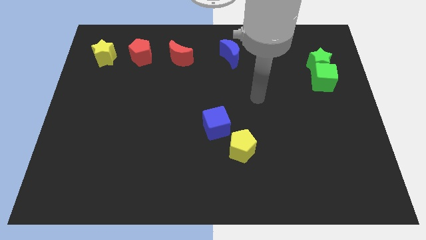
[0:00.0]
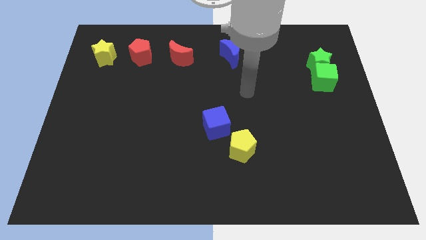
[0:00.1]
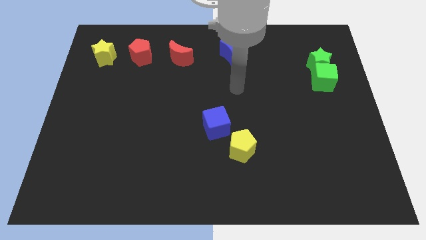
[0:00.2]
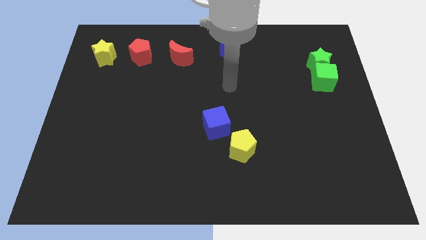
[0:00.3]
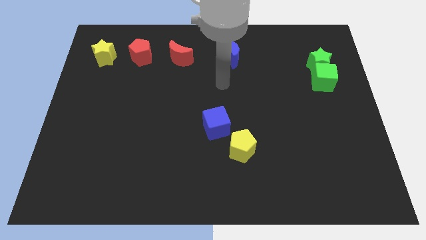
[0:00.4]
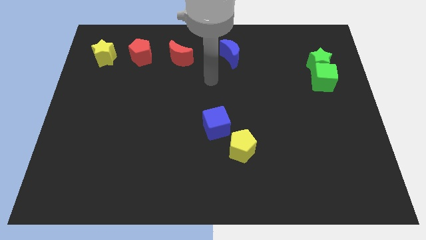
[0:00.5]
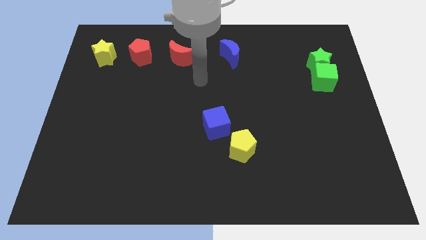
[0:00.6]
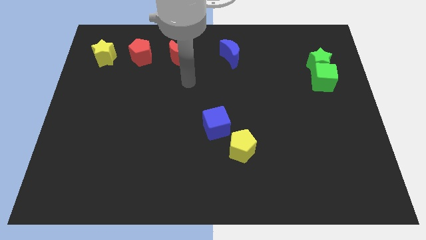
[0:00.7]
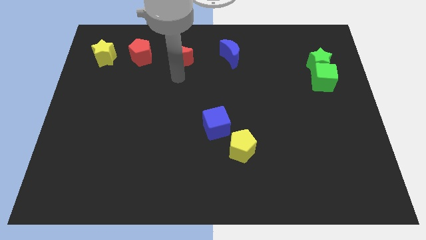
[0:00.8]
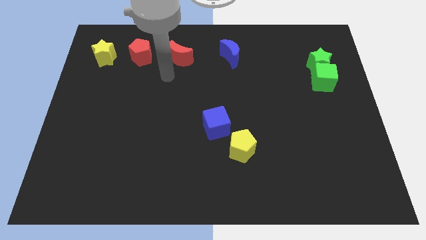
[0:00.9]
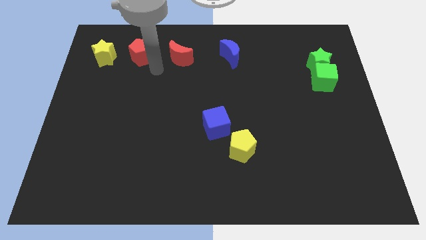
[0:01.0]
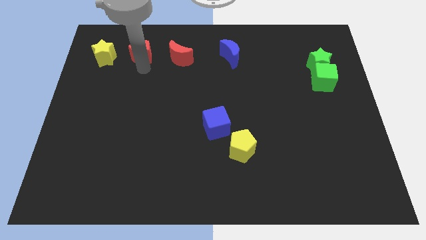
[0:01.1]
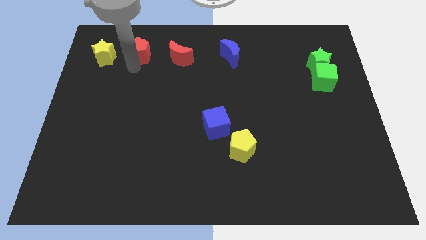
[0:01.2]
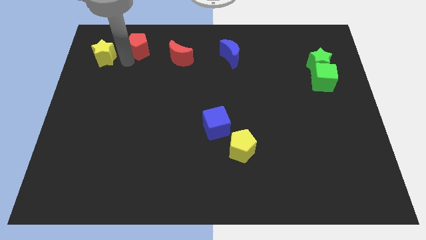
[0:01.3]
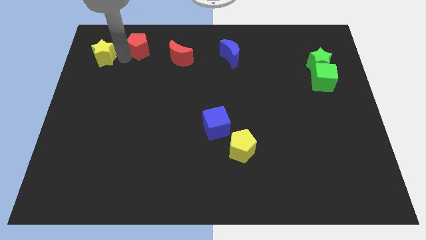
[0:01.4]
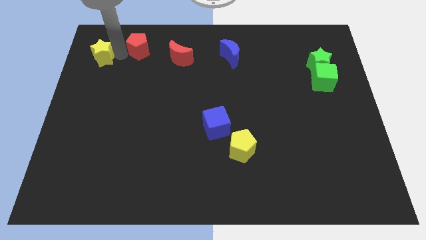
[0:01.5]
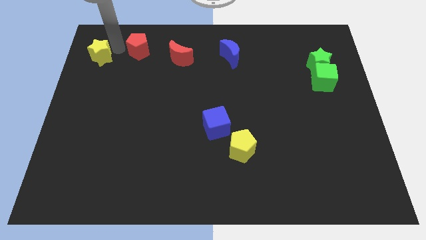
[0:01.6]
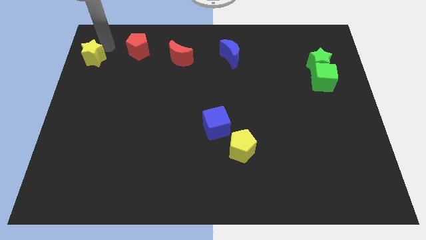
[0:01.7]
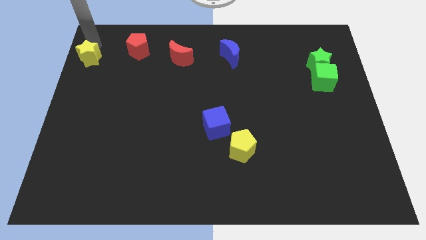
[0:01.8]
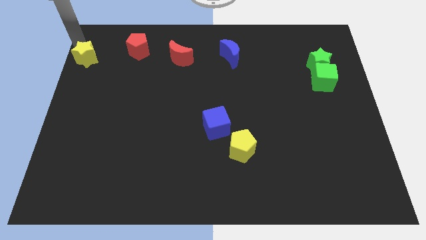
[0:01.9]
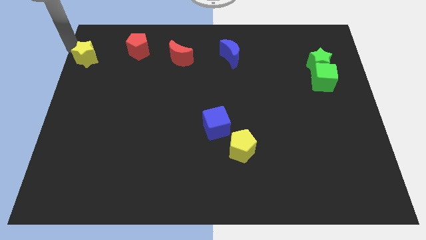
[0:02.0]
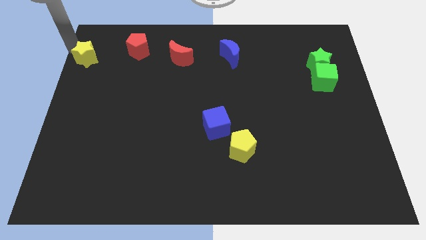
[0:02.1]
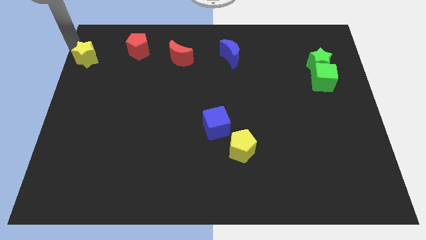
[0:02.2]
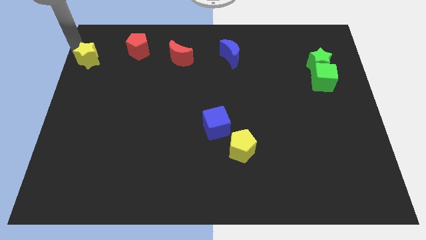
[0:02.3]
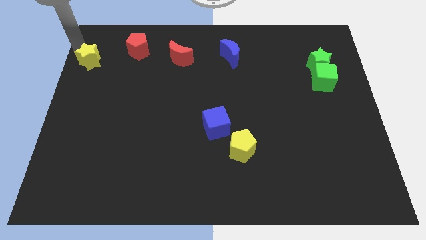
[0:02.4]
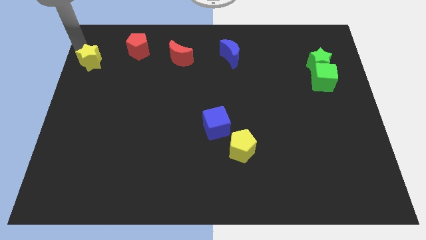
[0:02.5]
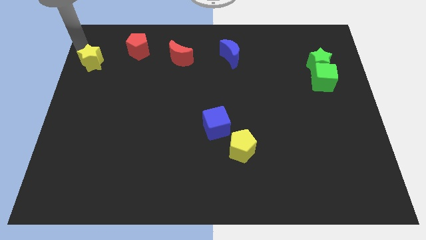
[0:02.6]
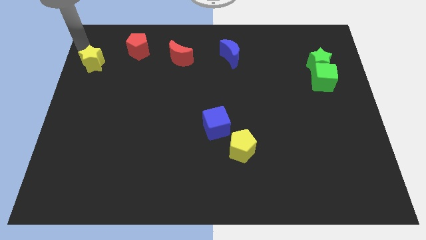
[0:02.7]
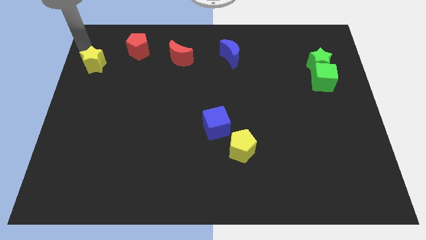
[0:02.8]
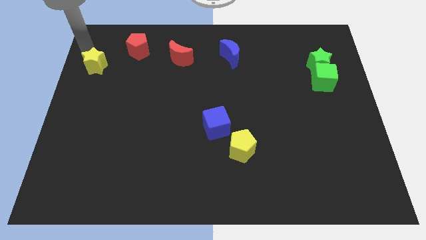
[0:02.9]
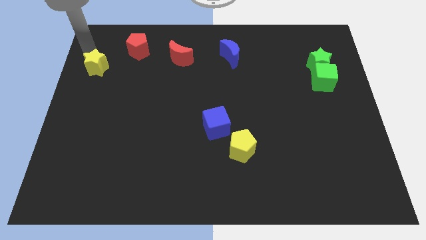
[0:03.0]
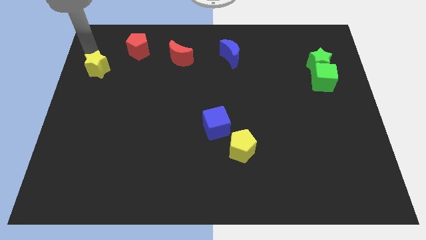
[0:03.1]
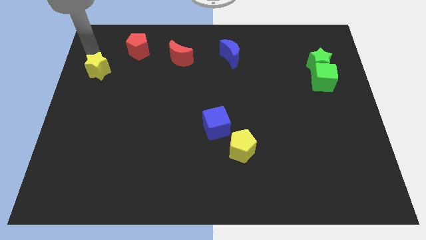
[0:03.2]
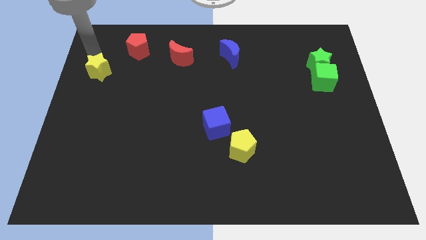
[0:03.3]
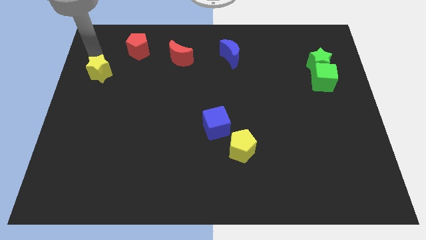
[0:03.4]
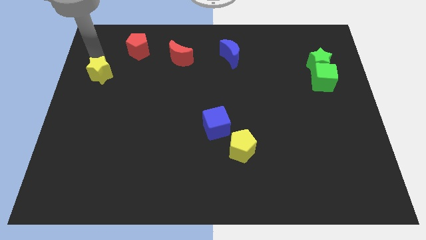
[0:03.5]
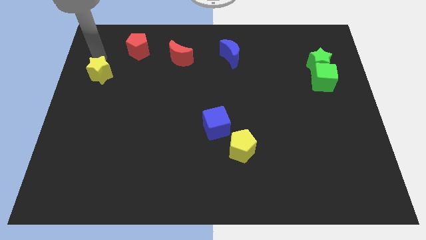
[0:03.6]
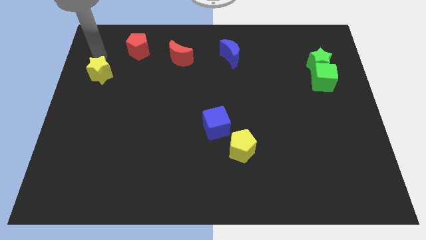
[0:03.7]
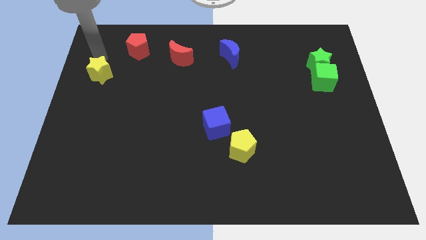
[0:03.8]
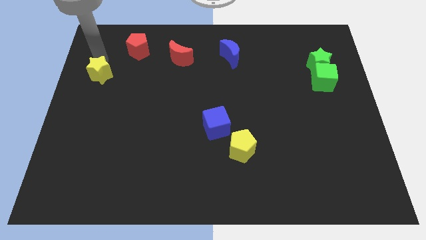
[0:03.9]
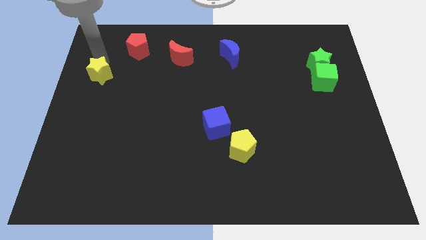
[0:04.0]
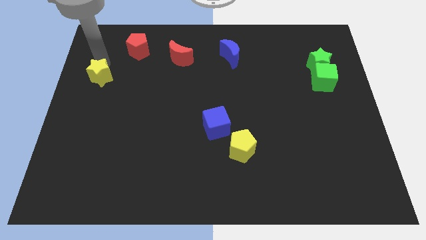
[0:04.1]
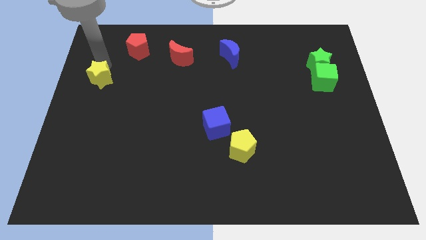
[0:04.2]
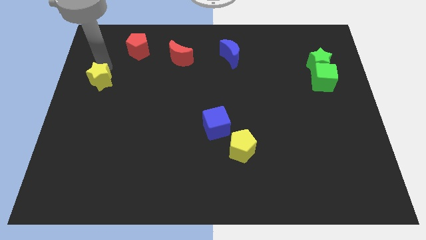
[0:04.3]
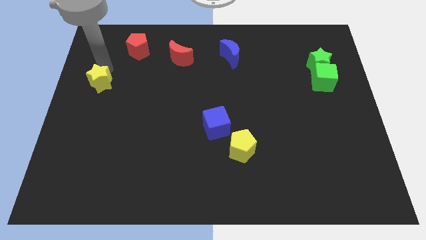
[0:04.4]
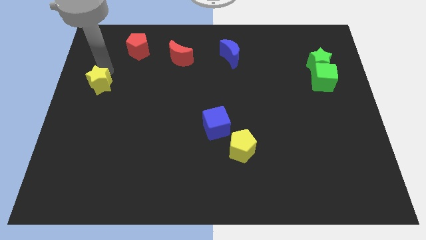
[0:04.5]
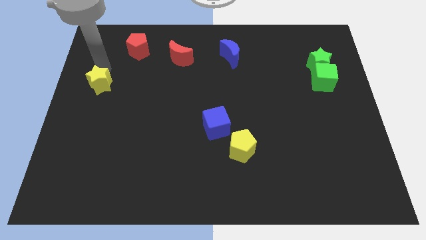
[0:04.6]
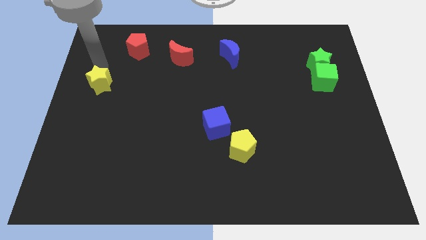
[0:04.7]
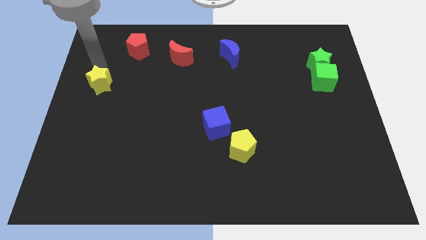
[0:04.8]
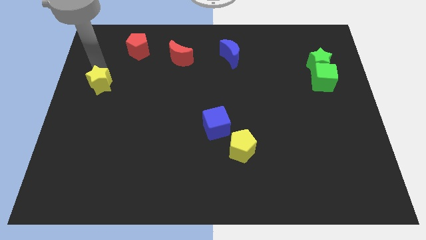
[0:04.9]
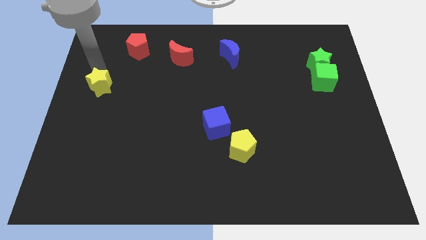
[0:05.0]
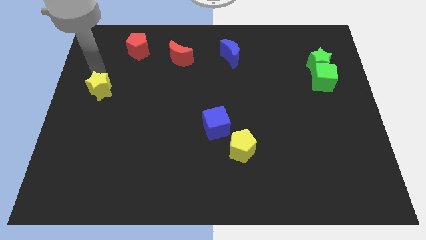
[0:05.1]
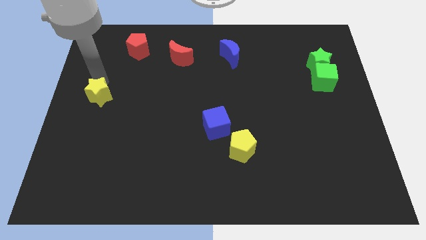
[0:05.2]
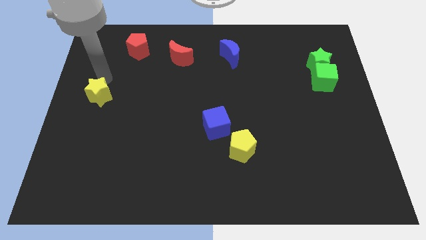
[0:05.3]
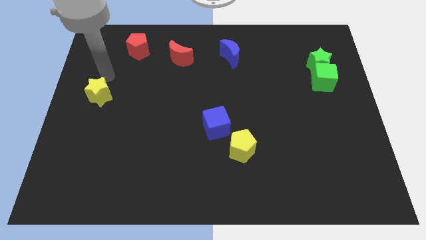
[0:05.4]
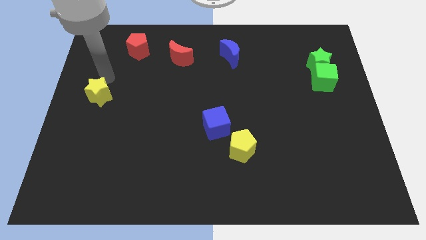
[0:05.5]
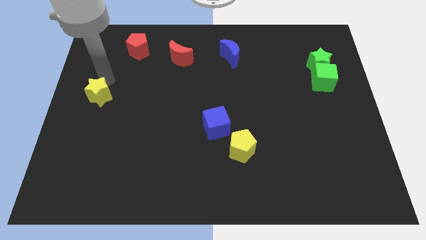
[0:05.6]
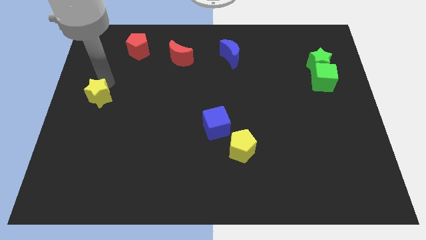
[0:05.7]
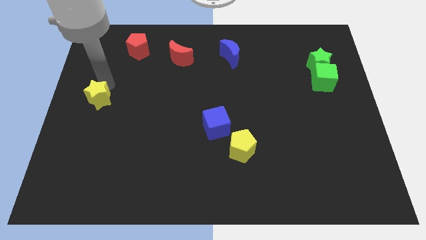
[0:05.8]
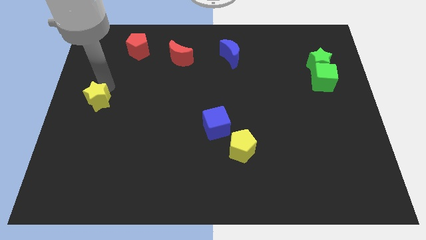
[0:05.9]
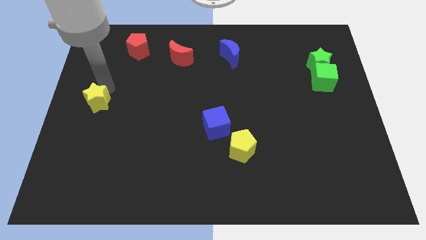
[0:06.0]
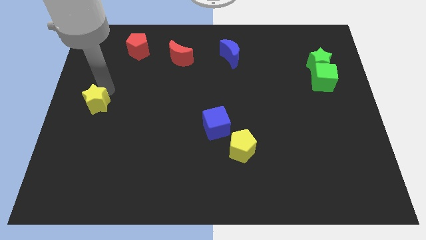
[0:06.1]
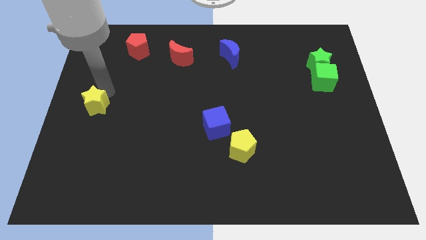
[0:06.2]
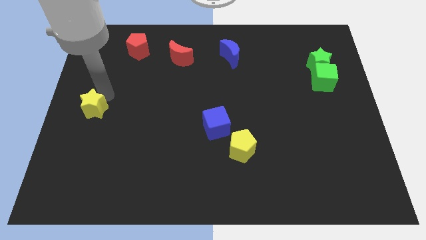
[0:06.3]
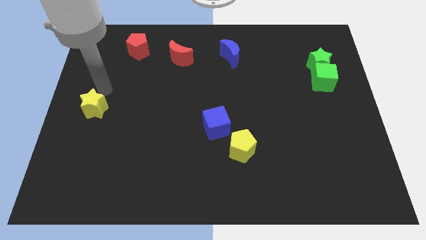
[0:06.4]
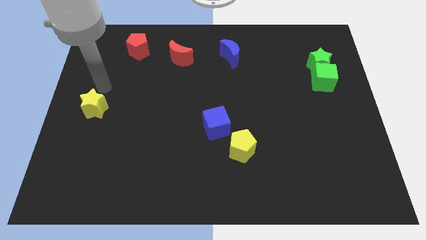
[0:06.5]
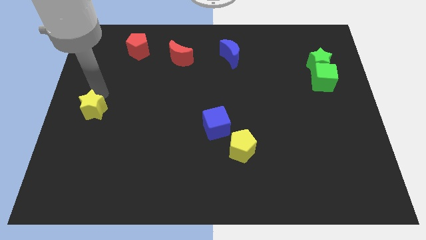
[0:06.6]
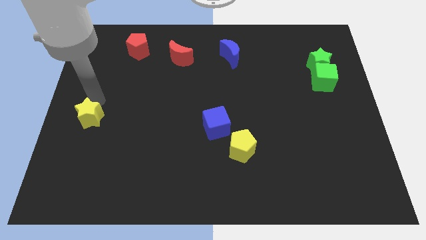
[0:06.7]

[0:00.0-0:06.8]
push the yellow star down

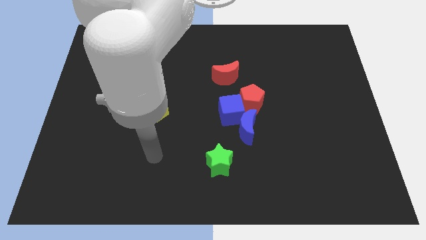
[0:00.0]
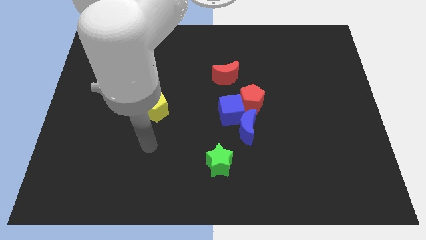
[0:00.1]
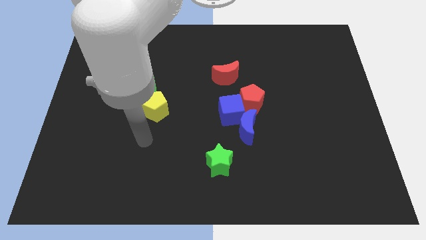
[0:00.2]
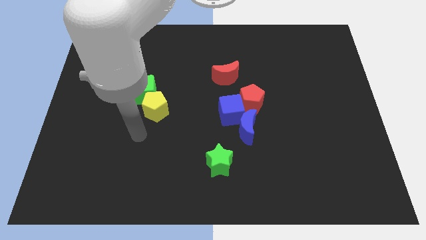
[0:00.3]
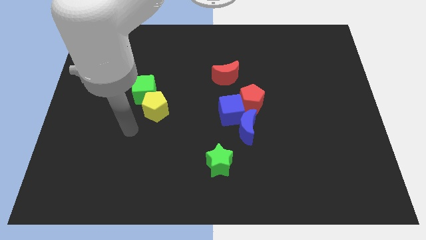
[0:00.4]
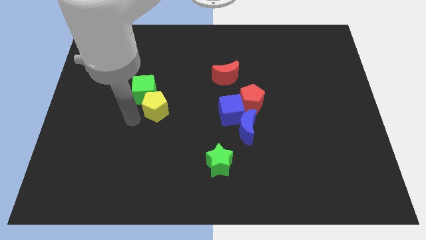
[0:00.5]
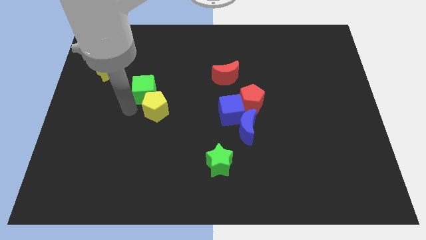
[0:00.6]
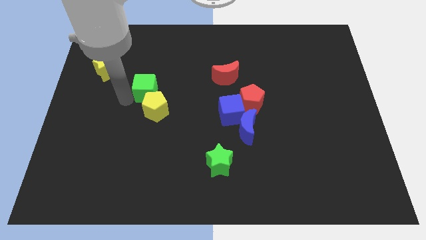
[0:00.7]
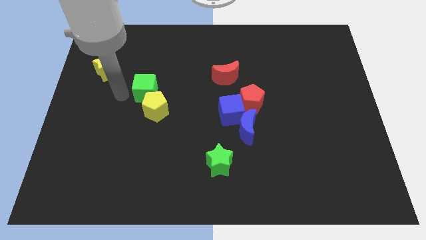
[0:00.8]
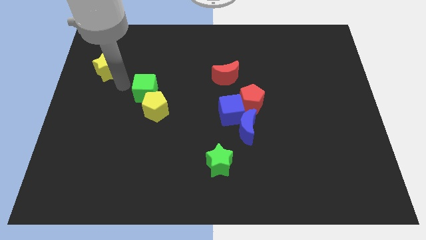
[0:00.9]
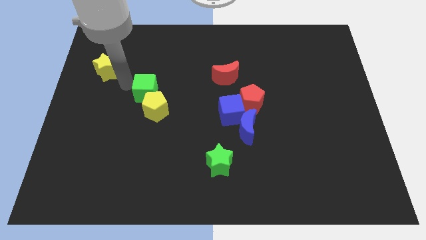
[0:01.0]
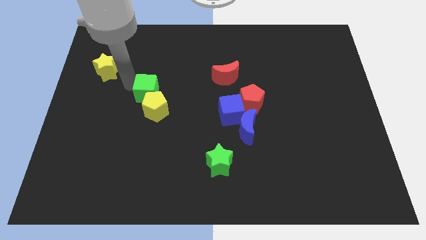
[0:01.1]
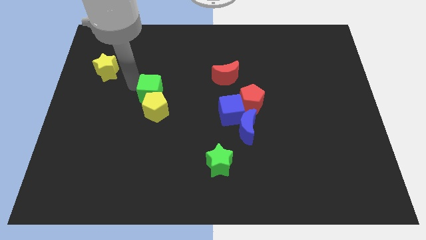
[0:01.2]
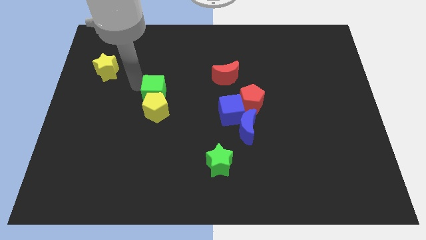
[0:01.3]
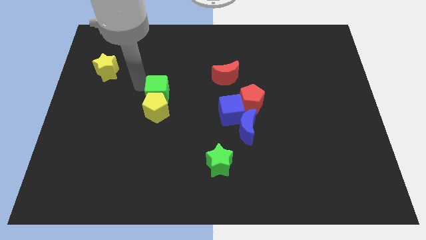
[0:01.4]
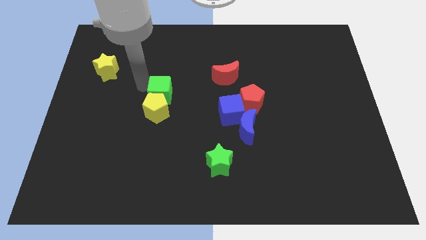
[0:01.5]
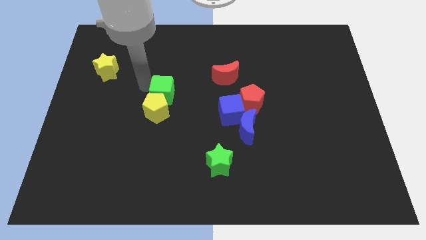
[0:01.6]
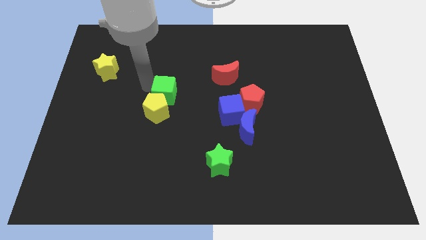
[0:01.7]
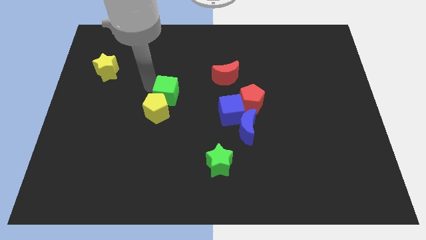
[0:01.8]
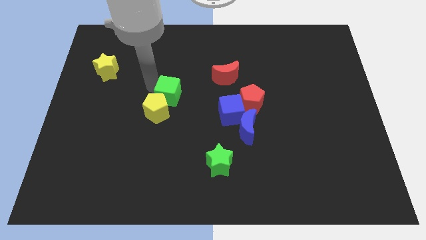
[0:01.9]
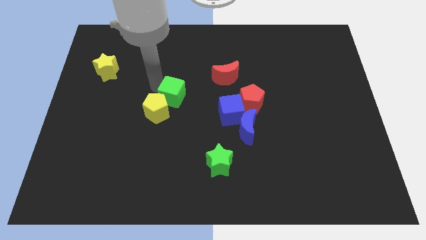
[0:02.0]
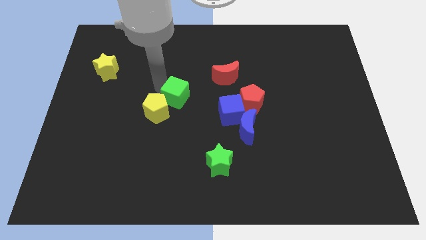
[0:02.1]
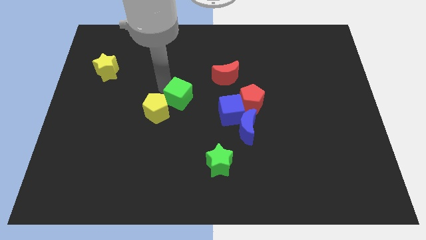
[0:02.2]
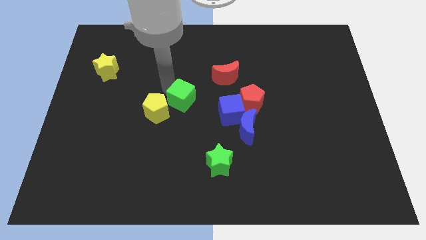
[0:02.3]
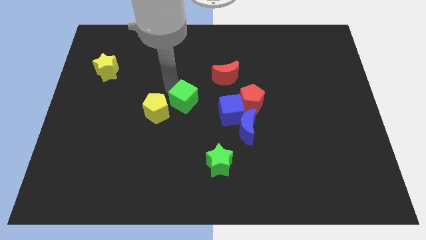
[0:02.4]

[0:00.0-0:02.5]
slightly push the green cube diagonally downwards and right
